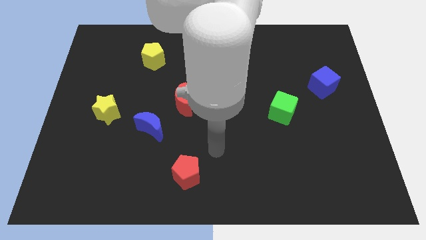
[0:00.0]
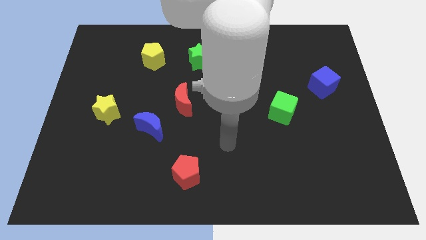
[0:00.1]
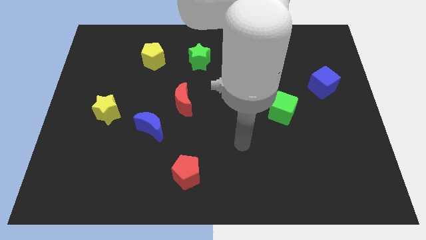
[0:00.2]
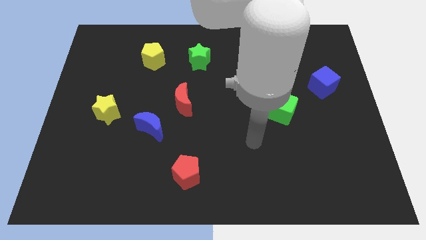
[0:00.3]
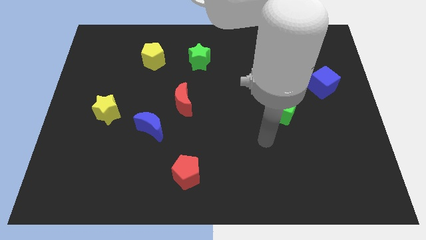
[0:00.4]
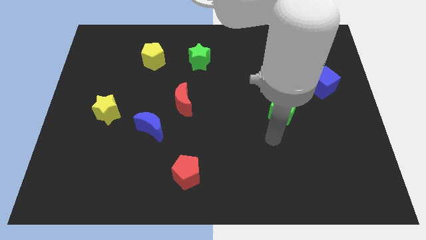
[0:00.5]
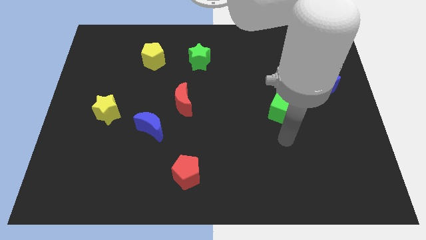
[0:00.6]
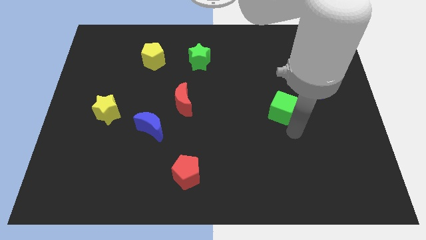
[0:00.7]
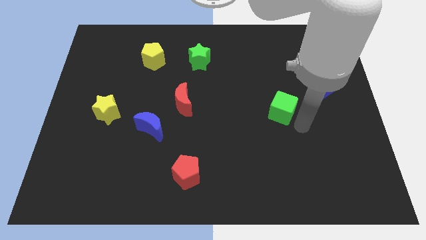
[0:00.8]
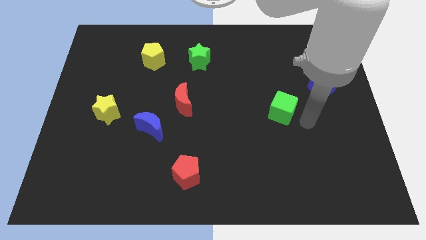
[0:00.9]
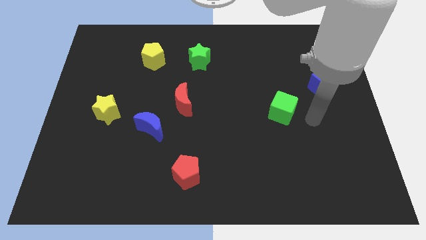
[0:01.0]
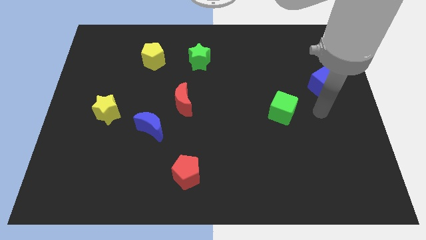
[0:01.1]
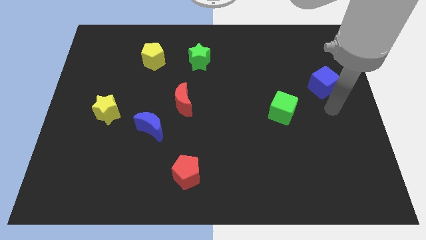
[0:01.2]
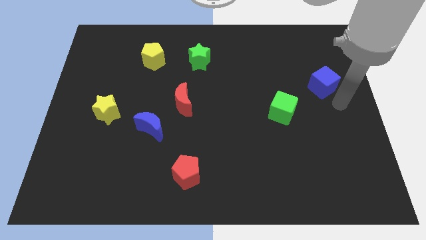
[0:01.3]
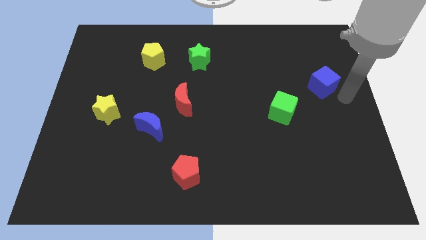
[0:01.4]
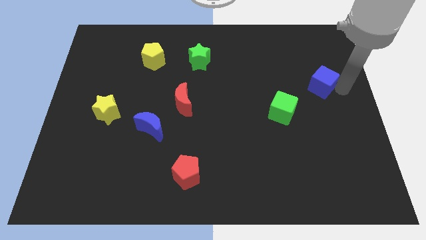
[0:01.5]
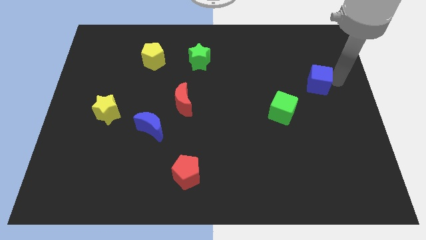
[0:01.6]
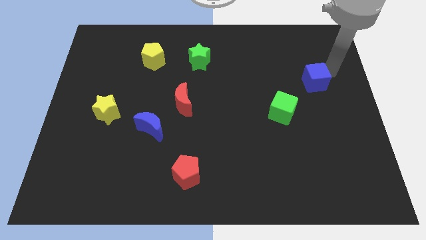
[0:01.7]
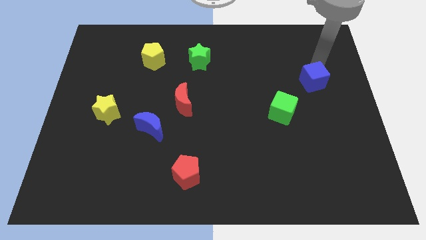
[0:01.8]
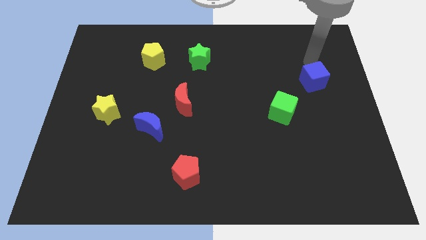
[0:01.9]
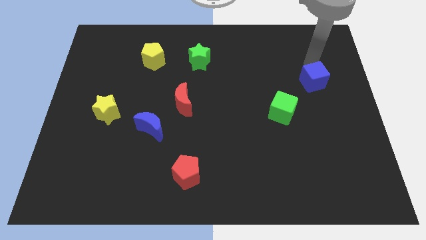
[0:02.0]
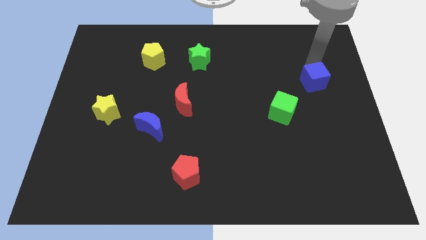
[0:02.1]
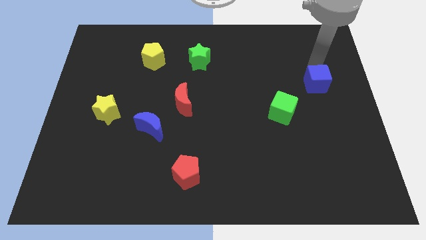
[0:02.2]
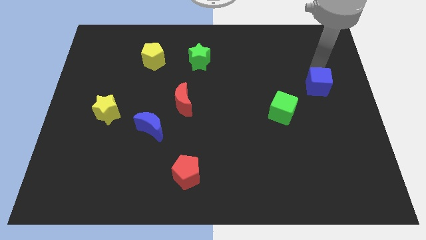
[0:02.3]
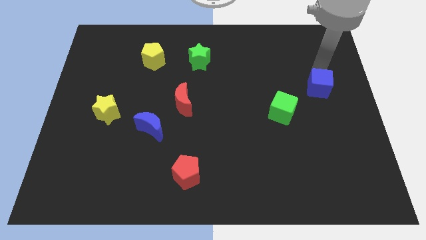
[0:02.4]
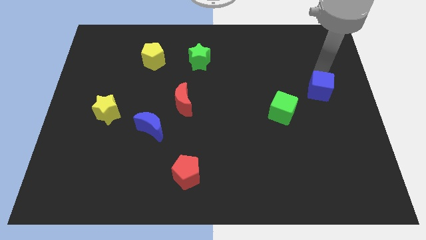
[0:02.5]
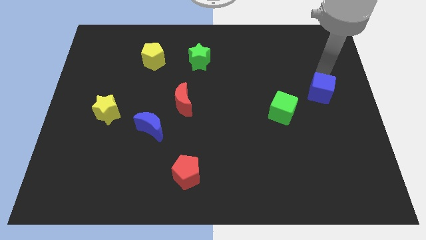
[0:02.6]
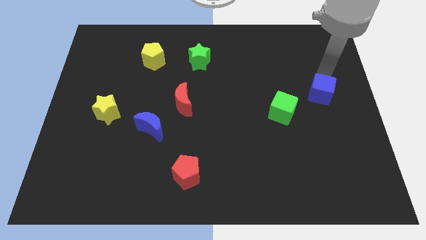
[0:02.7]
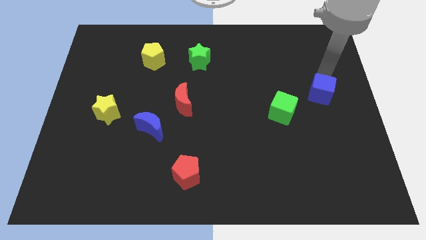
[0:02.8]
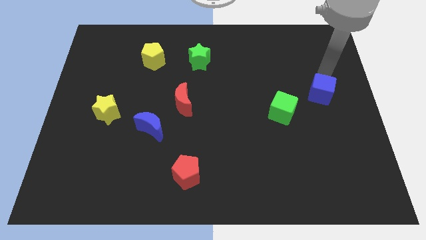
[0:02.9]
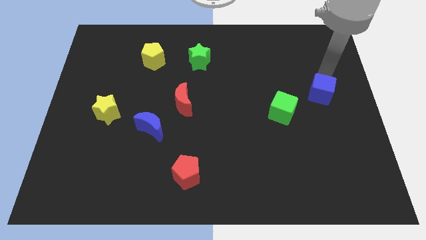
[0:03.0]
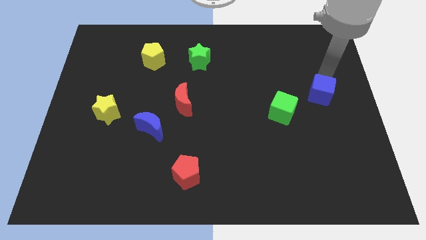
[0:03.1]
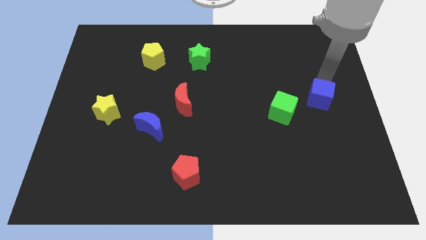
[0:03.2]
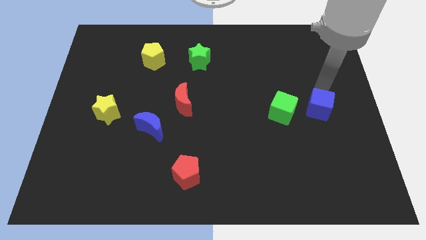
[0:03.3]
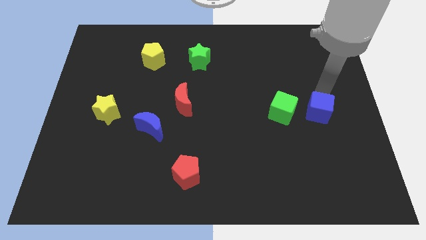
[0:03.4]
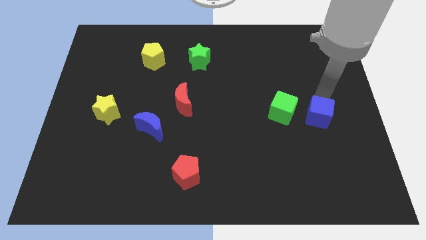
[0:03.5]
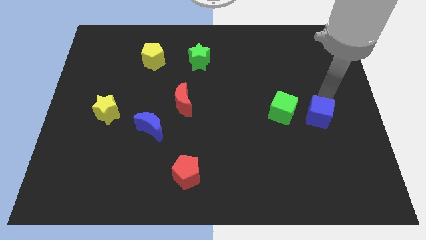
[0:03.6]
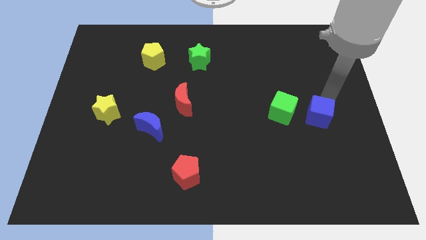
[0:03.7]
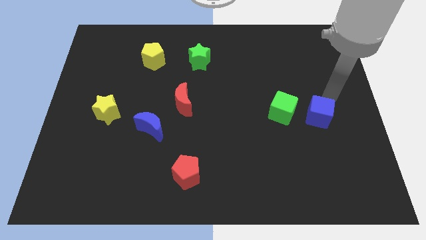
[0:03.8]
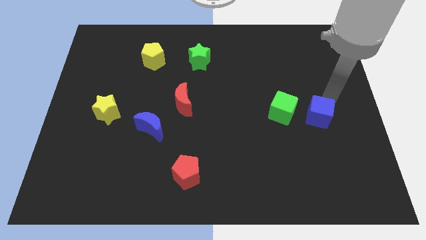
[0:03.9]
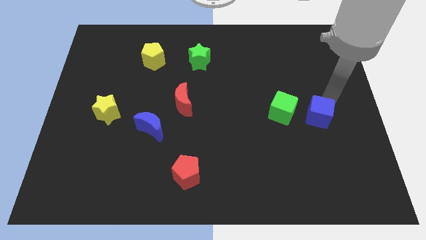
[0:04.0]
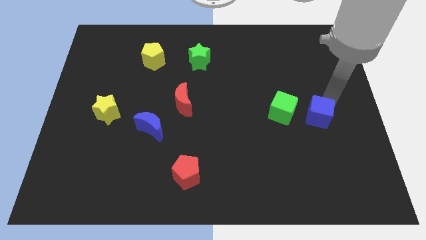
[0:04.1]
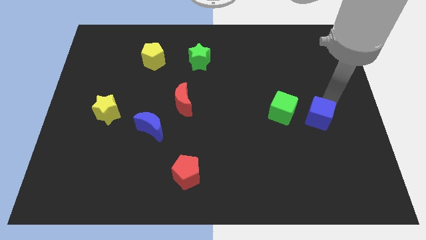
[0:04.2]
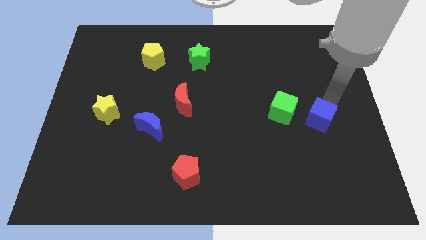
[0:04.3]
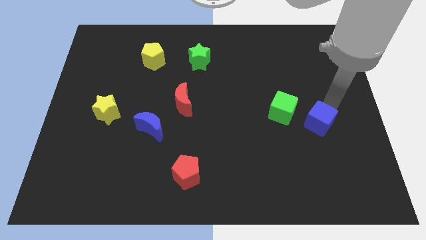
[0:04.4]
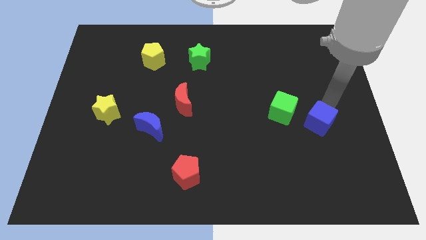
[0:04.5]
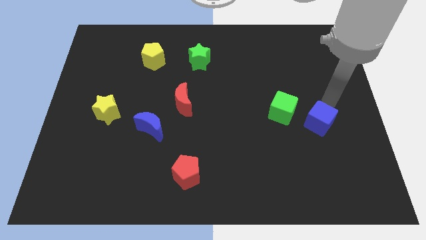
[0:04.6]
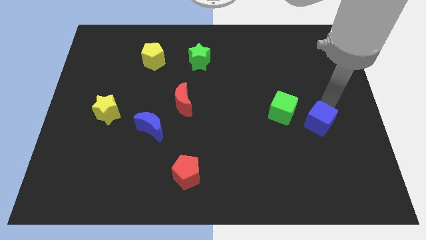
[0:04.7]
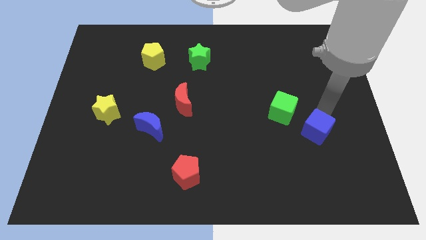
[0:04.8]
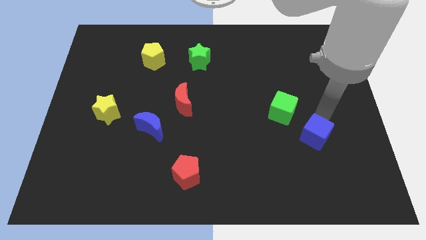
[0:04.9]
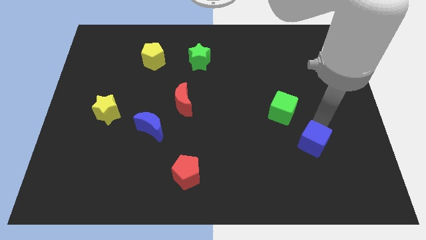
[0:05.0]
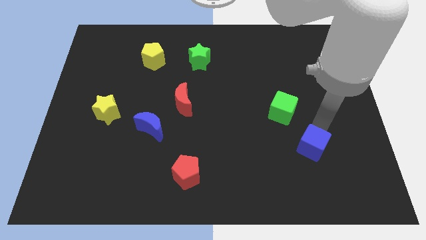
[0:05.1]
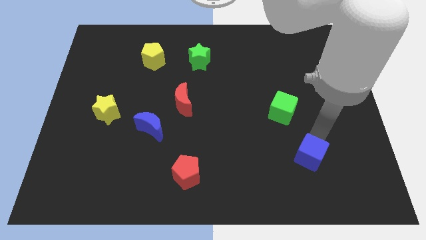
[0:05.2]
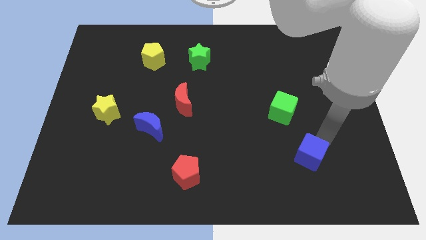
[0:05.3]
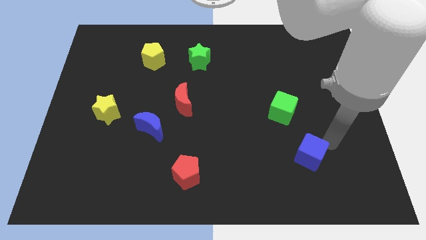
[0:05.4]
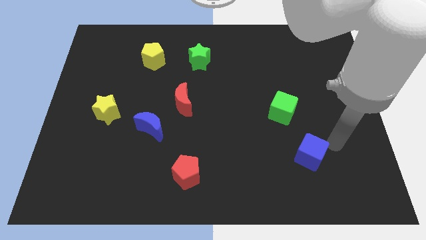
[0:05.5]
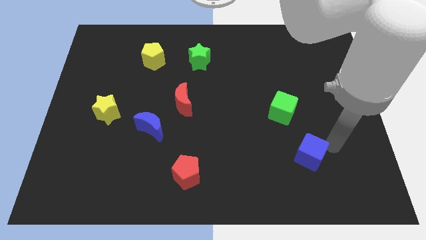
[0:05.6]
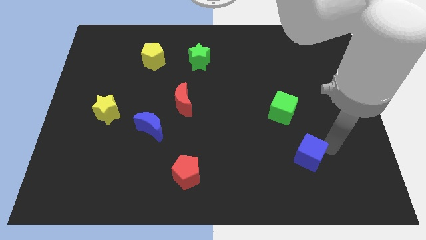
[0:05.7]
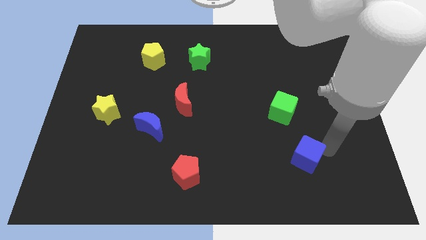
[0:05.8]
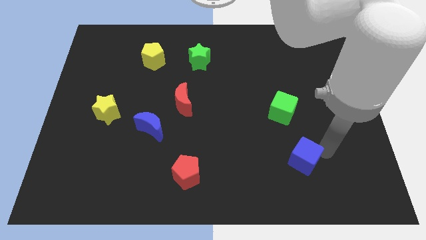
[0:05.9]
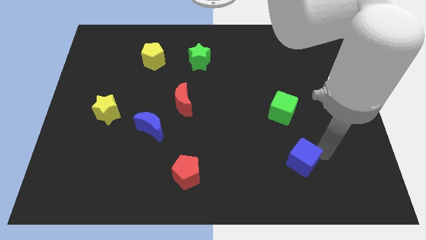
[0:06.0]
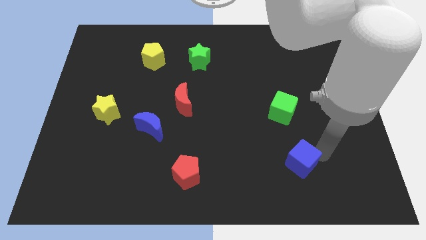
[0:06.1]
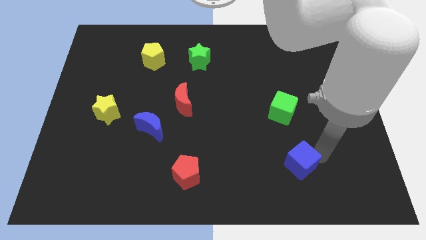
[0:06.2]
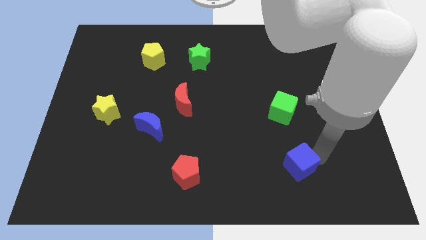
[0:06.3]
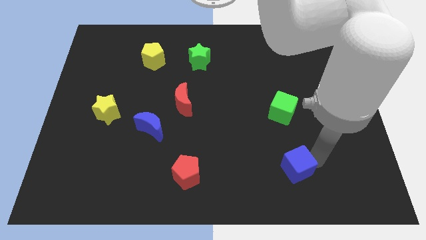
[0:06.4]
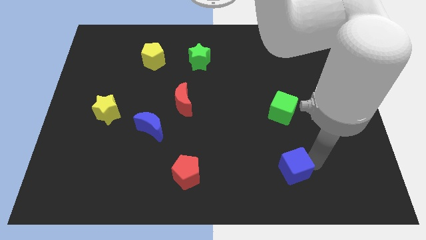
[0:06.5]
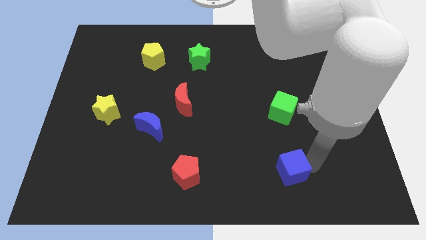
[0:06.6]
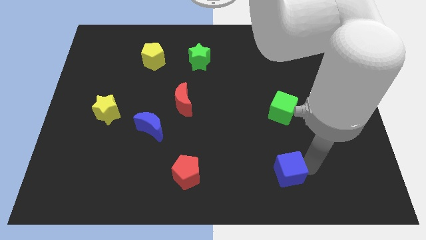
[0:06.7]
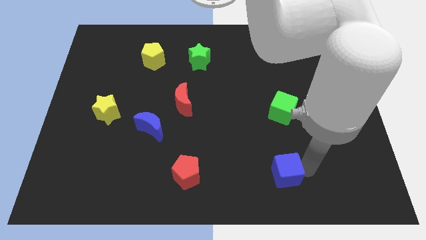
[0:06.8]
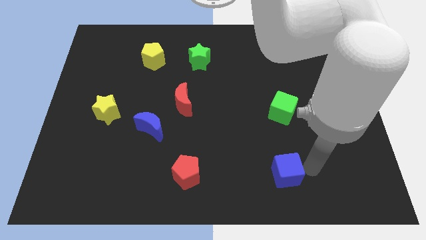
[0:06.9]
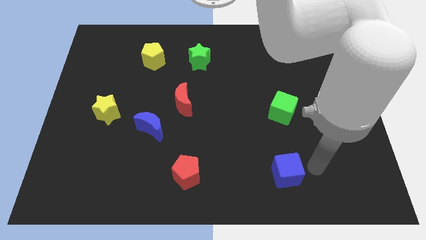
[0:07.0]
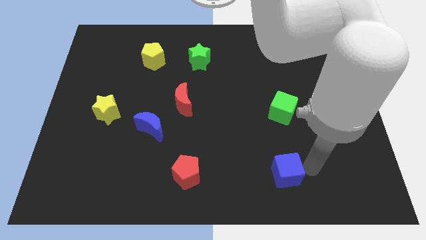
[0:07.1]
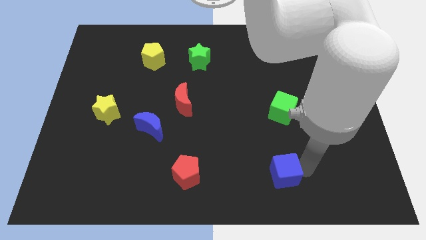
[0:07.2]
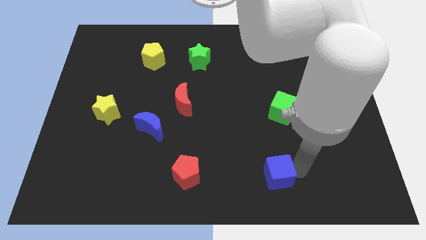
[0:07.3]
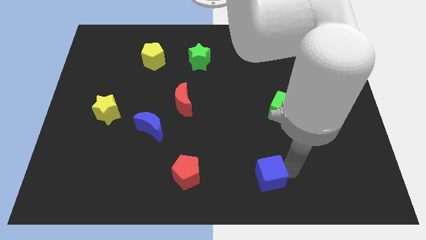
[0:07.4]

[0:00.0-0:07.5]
slide the blue cube to the bottom side
